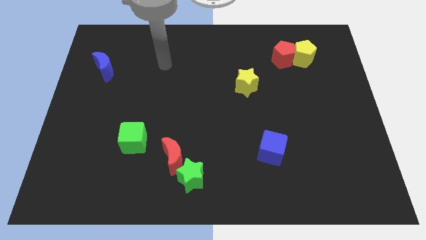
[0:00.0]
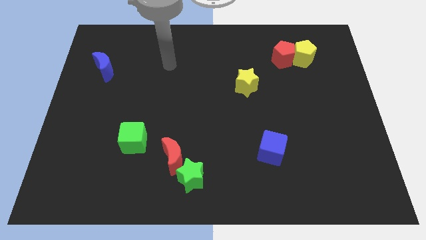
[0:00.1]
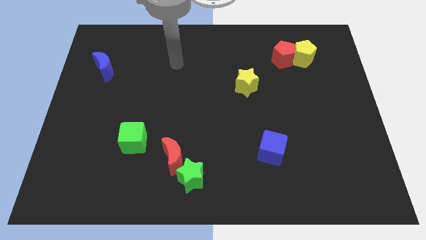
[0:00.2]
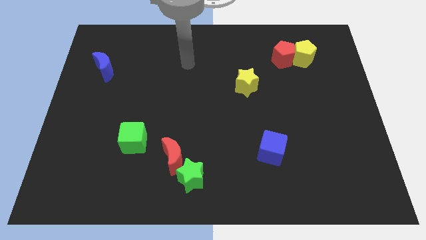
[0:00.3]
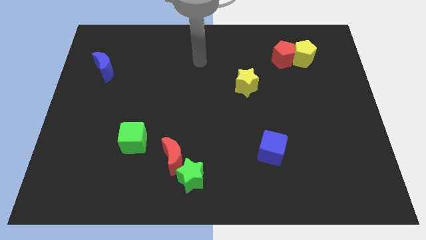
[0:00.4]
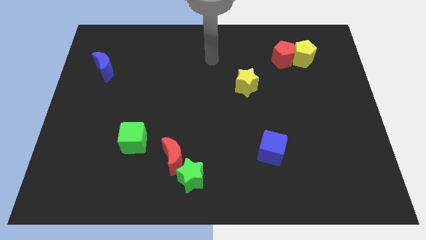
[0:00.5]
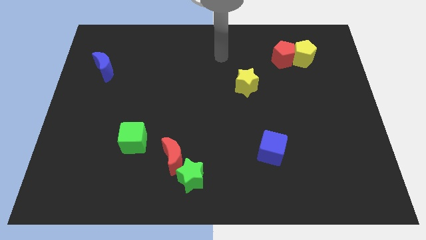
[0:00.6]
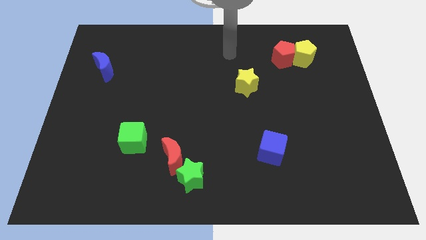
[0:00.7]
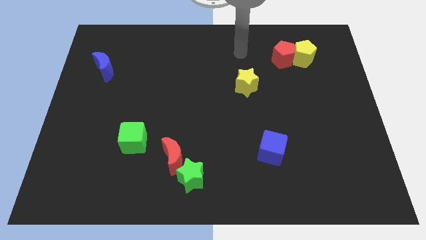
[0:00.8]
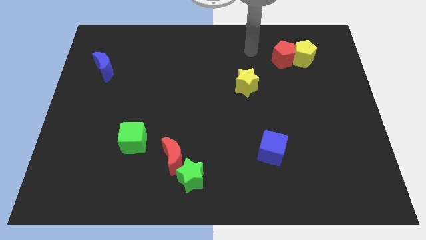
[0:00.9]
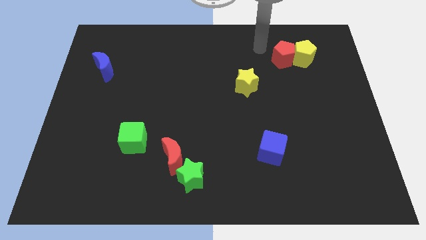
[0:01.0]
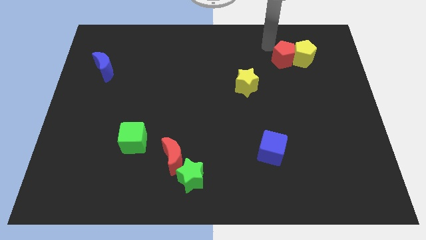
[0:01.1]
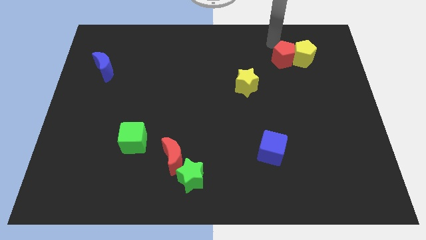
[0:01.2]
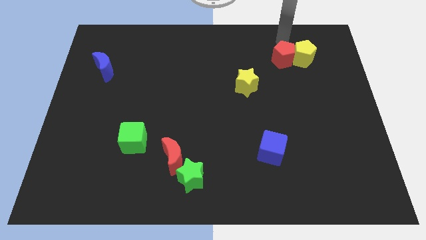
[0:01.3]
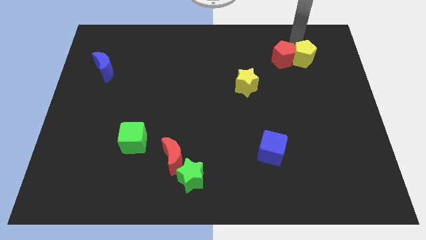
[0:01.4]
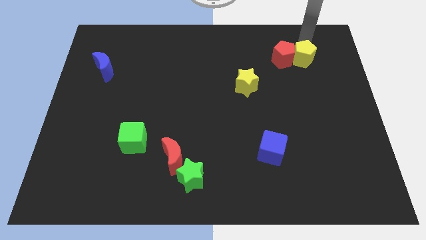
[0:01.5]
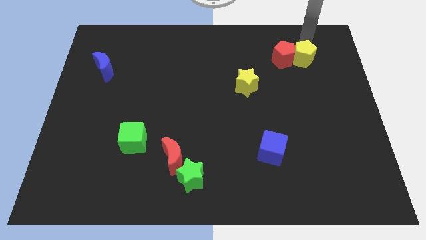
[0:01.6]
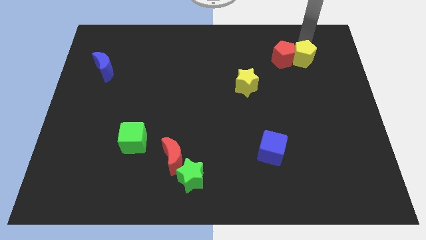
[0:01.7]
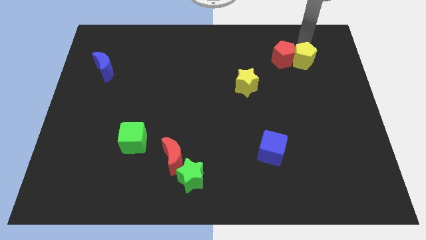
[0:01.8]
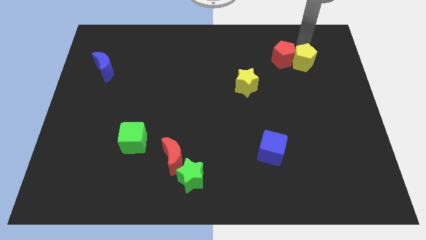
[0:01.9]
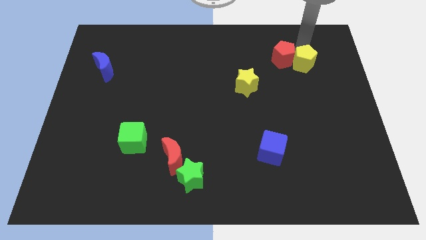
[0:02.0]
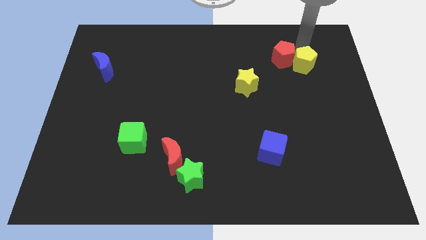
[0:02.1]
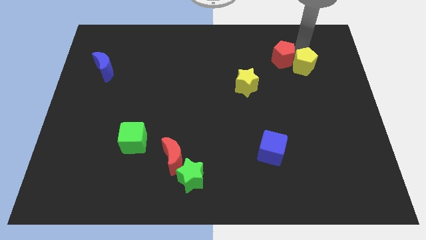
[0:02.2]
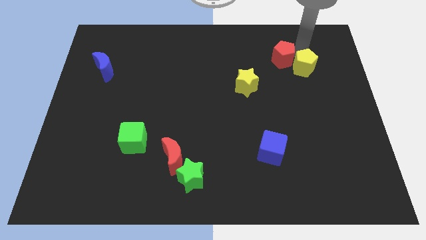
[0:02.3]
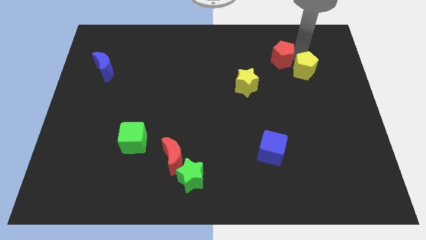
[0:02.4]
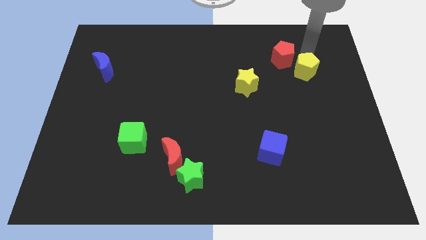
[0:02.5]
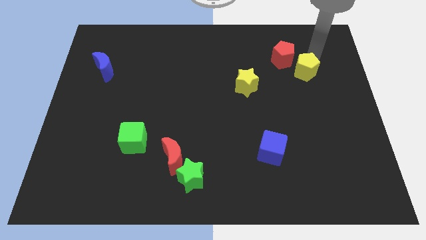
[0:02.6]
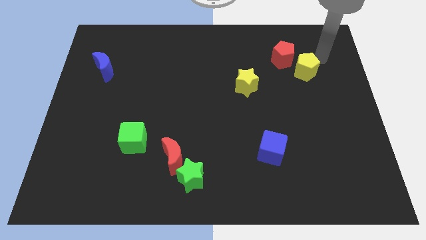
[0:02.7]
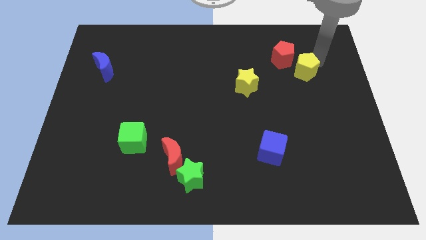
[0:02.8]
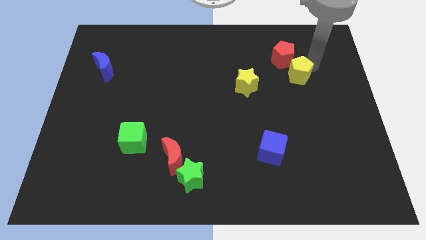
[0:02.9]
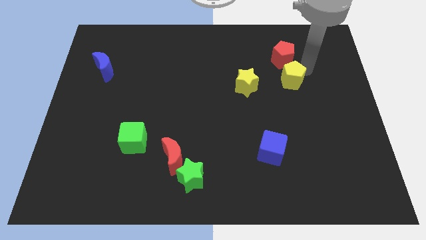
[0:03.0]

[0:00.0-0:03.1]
move the yellow pentagon a little bit diagonally downwards and to the left

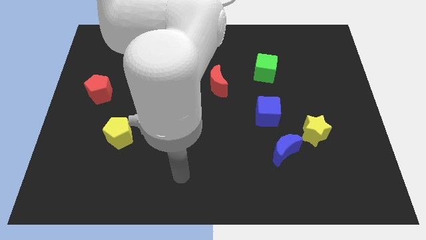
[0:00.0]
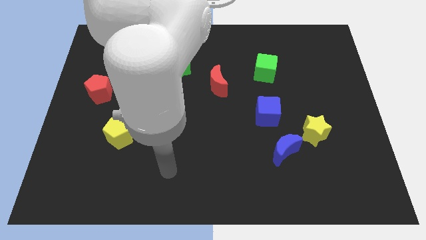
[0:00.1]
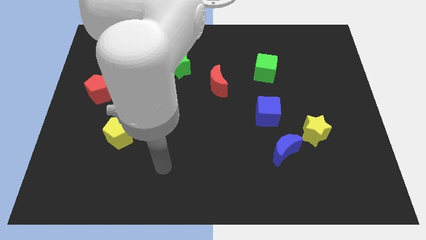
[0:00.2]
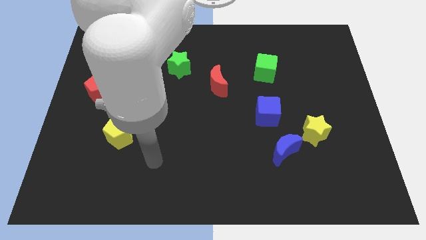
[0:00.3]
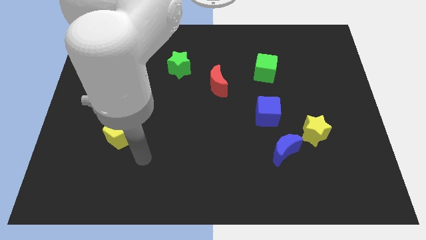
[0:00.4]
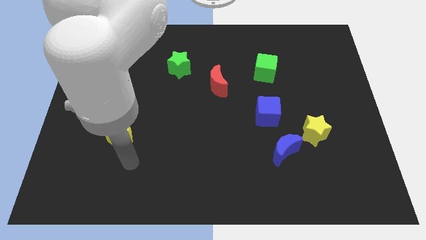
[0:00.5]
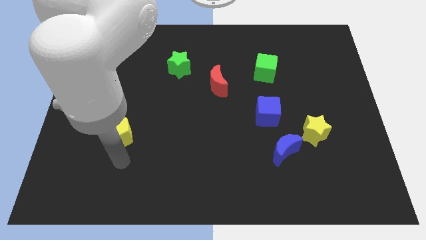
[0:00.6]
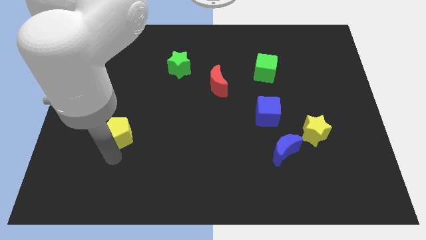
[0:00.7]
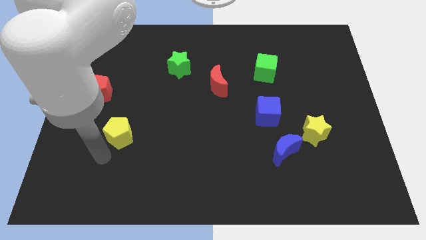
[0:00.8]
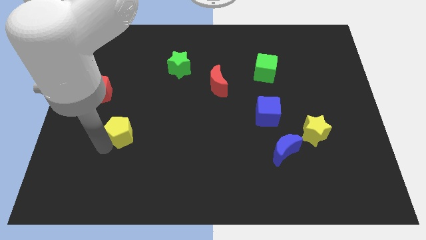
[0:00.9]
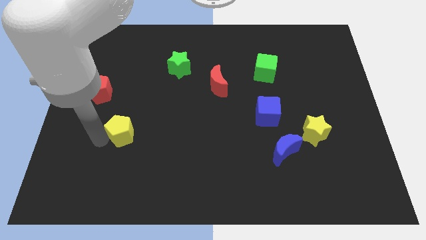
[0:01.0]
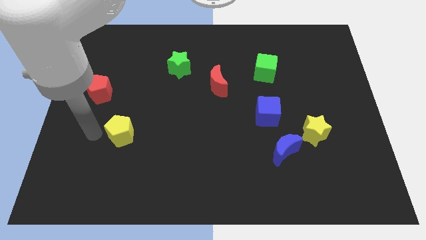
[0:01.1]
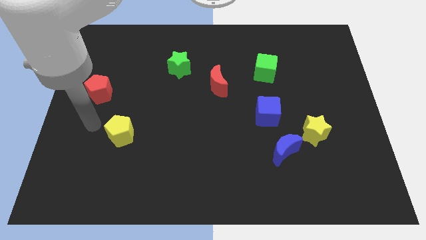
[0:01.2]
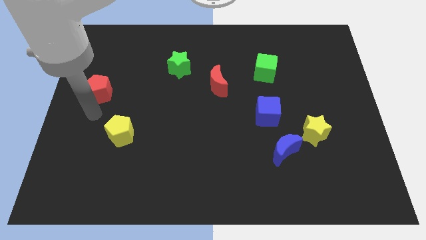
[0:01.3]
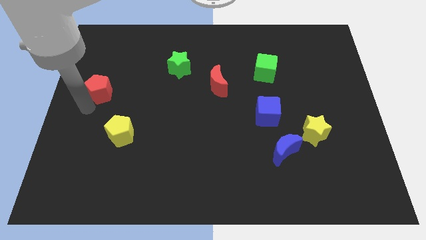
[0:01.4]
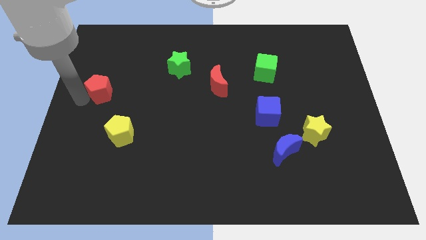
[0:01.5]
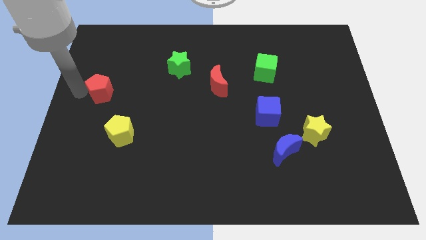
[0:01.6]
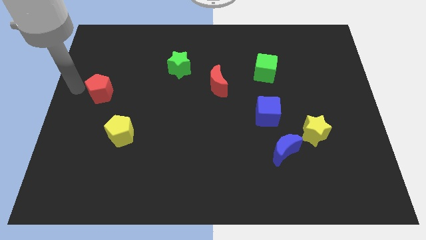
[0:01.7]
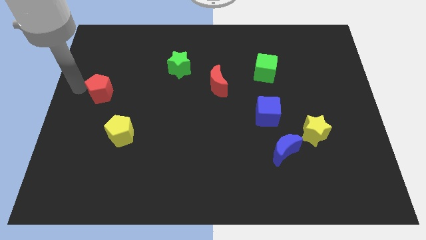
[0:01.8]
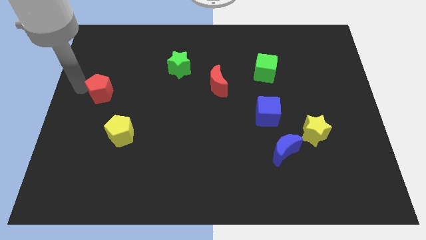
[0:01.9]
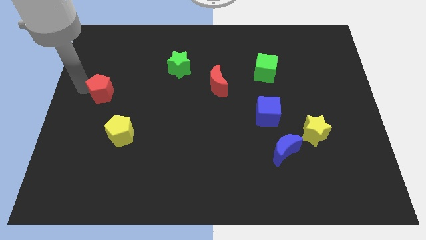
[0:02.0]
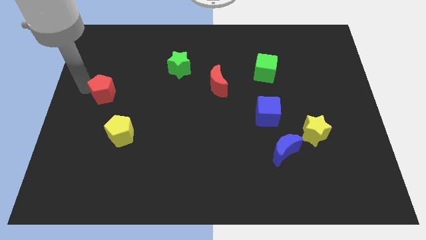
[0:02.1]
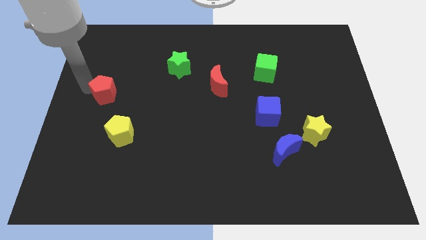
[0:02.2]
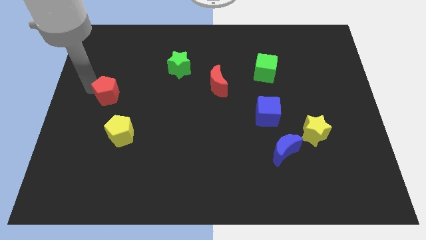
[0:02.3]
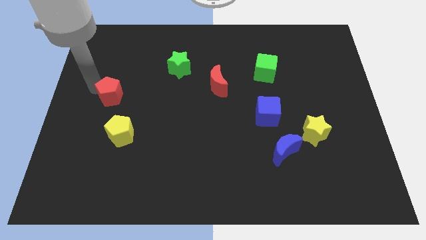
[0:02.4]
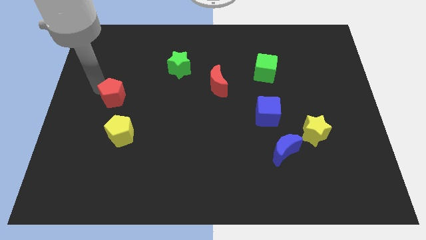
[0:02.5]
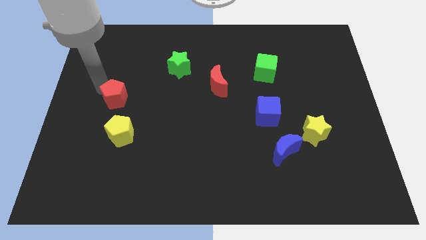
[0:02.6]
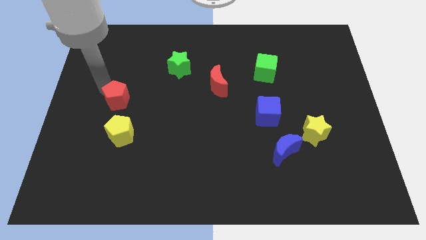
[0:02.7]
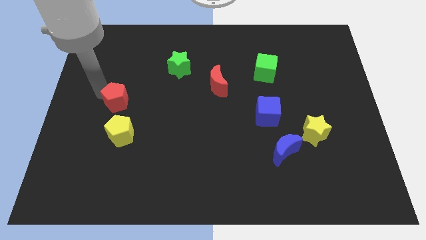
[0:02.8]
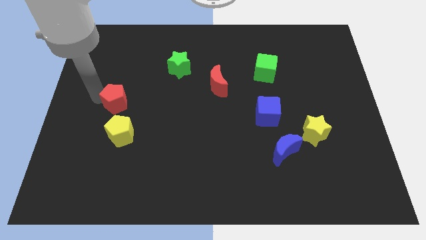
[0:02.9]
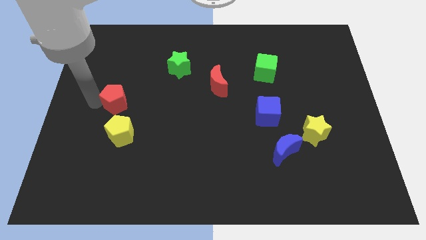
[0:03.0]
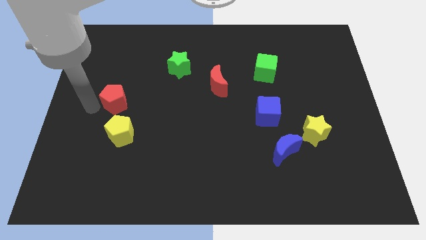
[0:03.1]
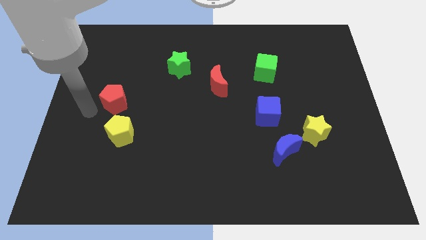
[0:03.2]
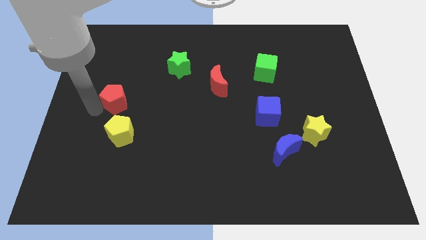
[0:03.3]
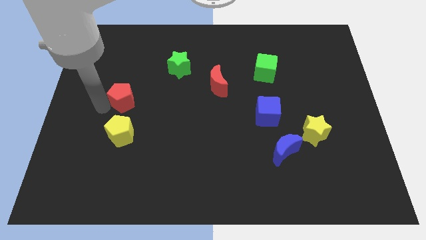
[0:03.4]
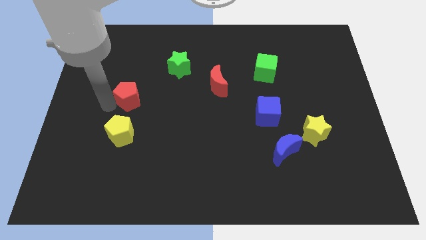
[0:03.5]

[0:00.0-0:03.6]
move the red pentagon a little to the right

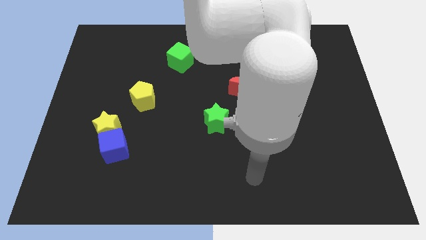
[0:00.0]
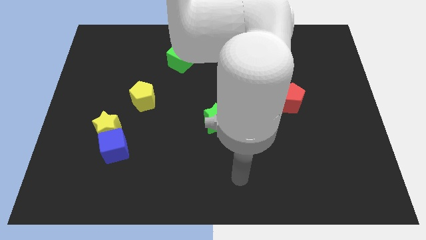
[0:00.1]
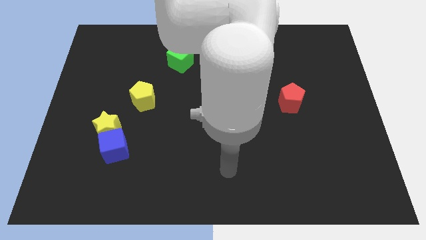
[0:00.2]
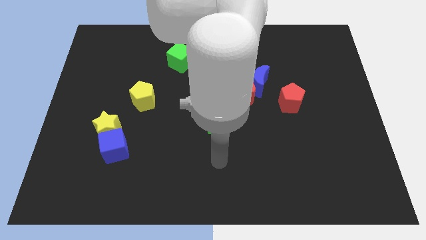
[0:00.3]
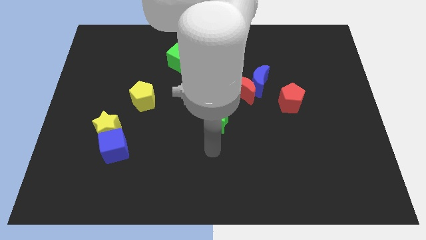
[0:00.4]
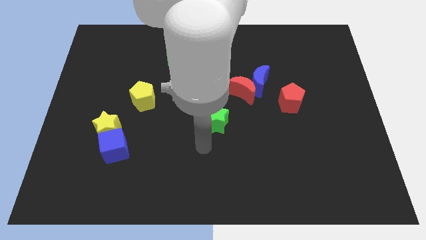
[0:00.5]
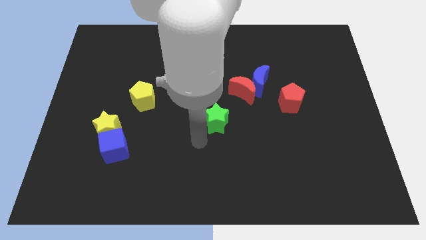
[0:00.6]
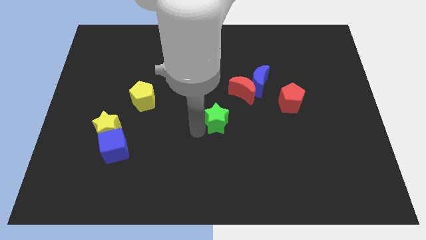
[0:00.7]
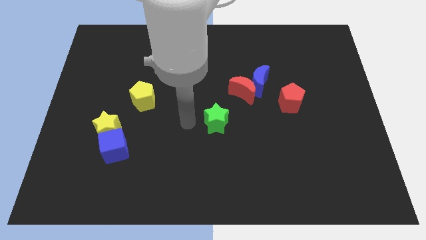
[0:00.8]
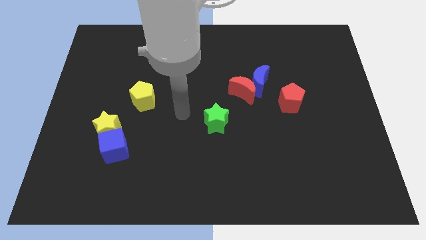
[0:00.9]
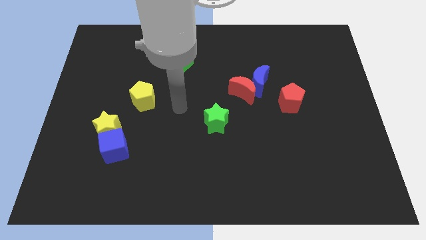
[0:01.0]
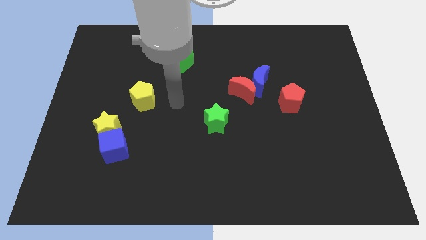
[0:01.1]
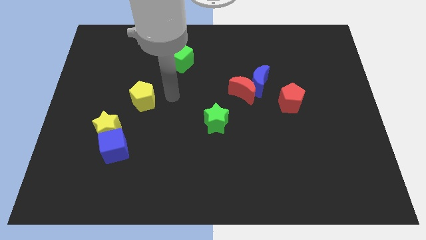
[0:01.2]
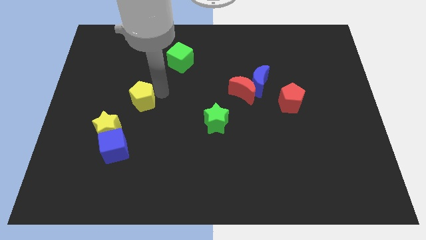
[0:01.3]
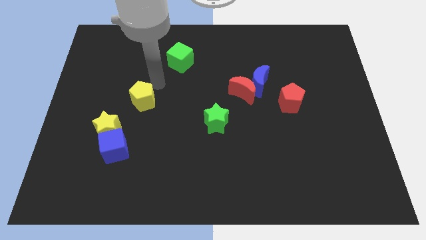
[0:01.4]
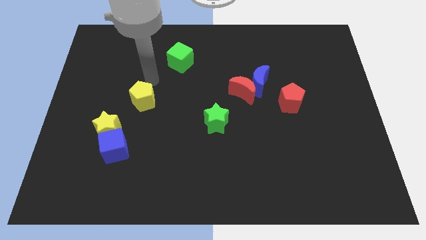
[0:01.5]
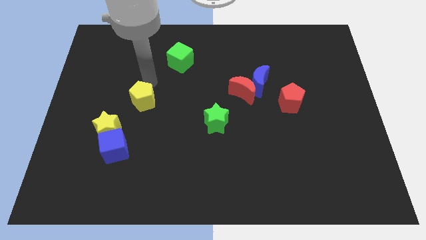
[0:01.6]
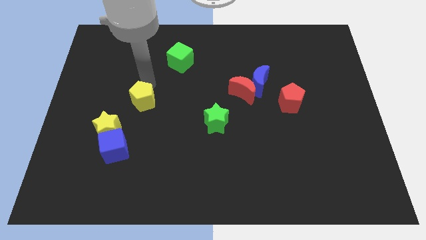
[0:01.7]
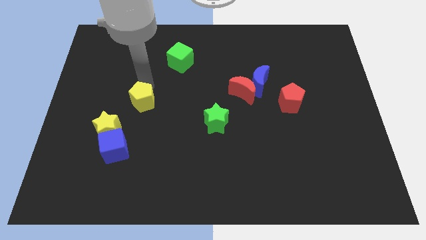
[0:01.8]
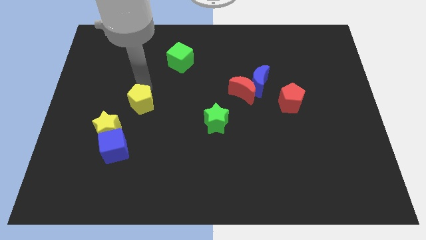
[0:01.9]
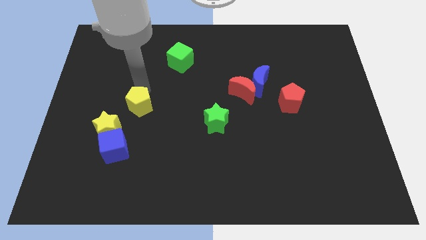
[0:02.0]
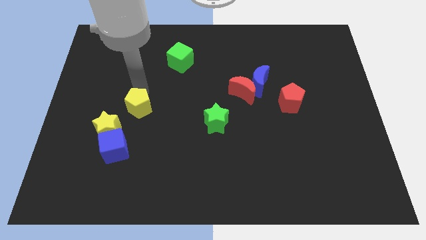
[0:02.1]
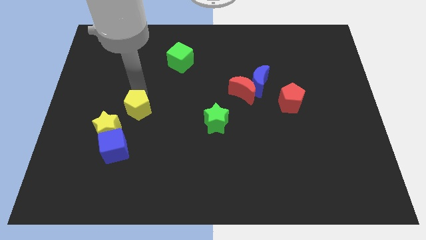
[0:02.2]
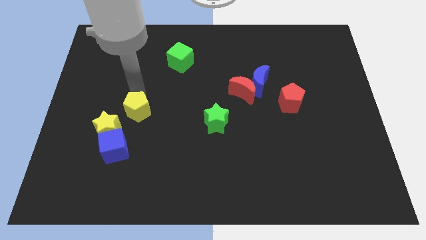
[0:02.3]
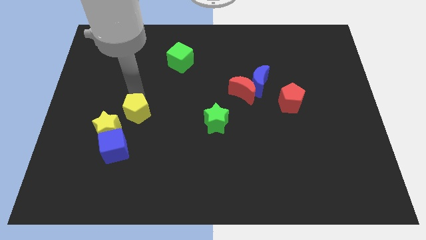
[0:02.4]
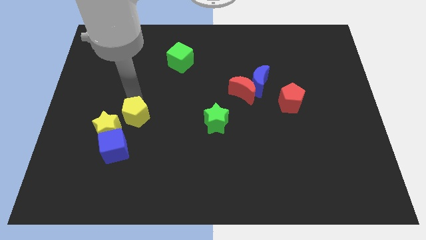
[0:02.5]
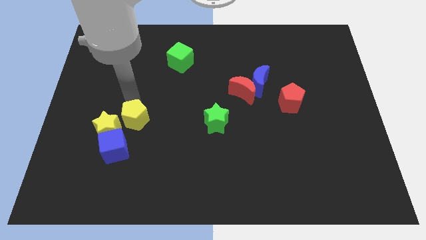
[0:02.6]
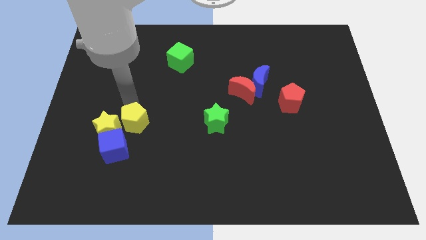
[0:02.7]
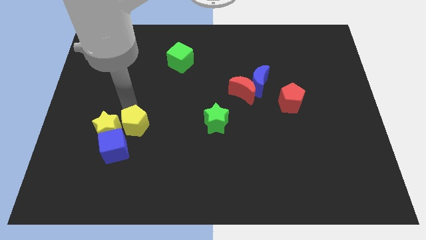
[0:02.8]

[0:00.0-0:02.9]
slide the yellow pentagon downwards a little
